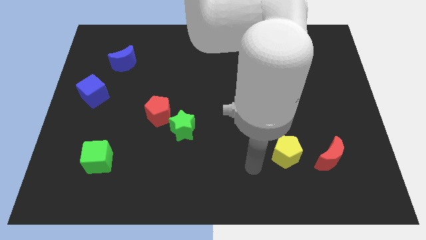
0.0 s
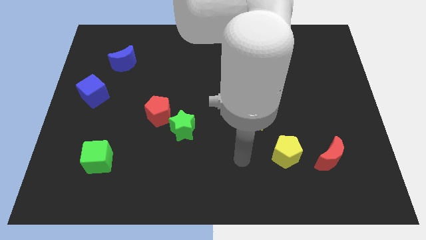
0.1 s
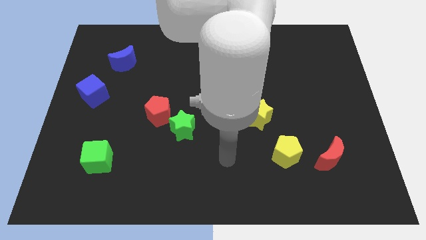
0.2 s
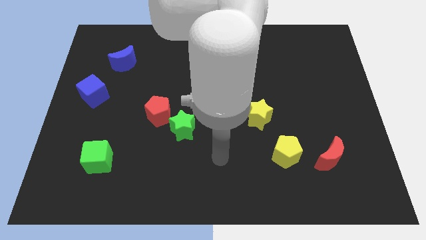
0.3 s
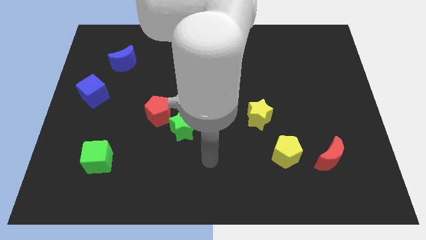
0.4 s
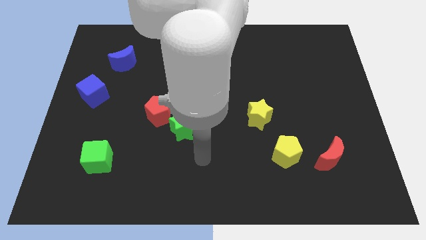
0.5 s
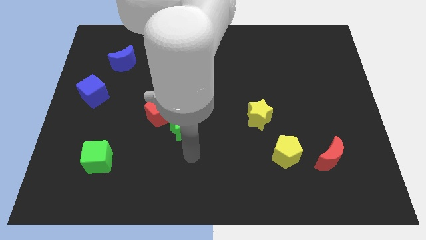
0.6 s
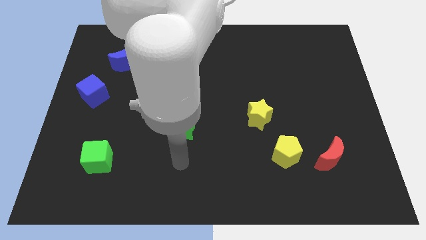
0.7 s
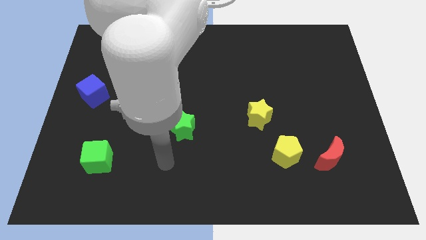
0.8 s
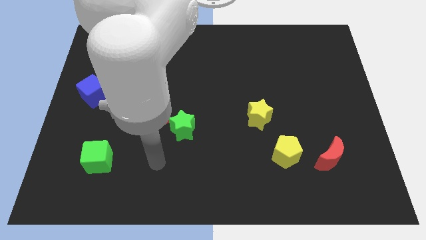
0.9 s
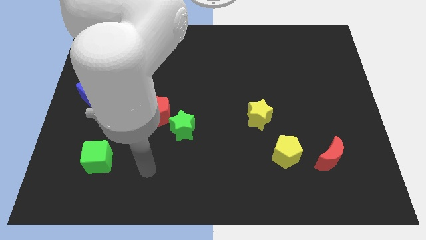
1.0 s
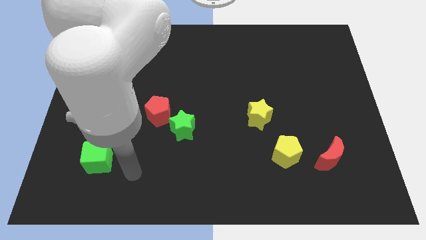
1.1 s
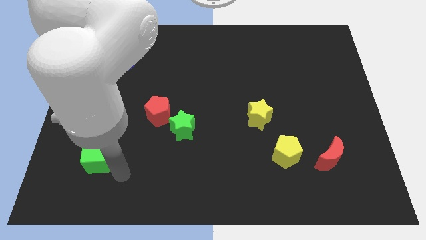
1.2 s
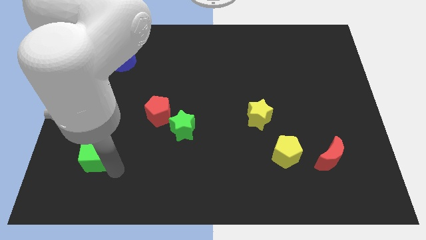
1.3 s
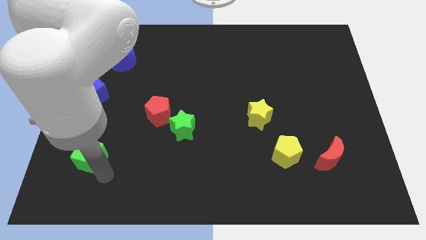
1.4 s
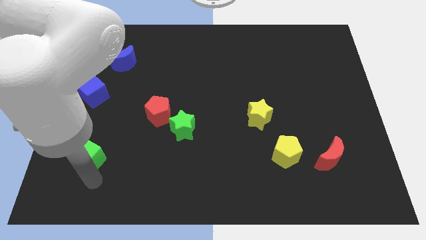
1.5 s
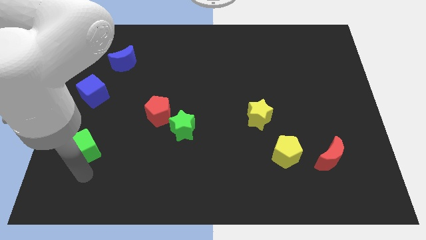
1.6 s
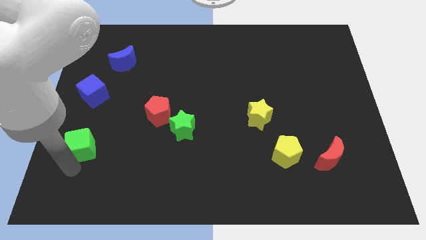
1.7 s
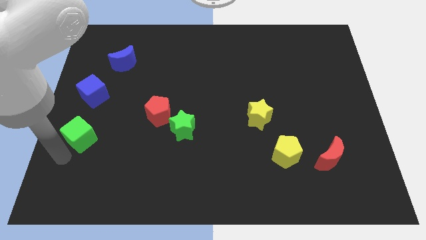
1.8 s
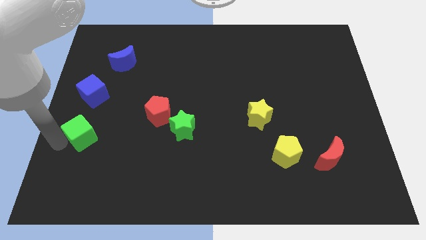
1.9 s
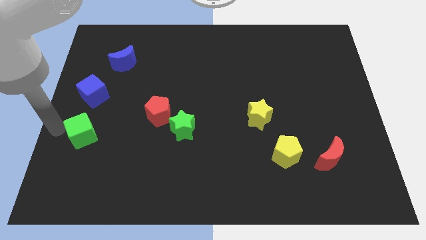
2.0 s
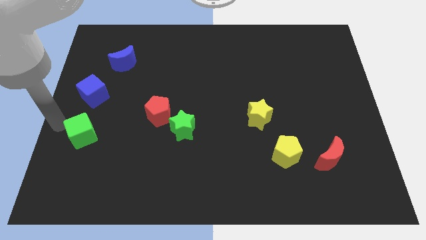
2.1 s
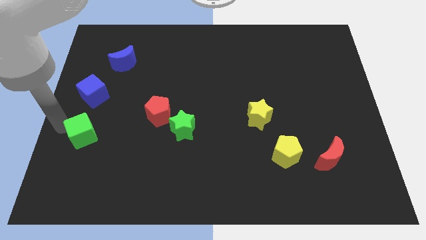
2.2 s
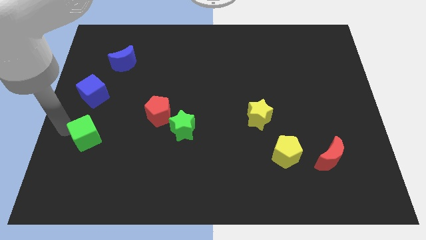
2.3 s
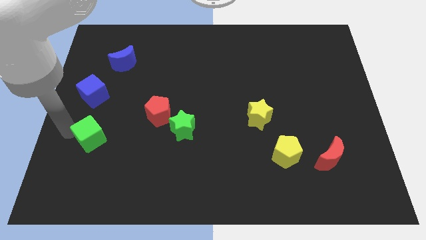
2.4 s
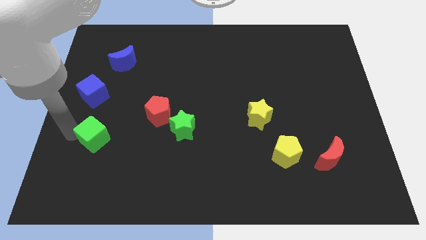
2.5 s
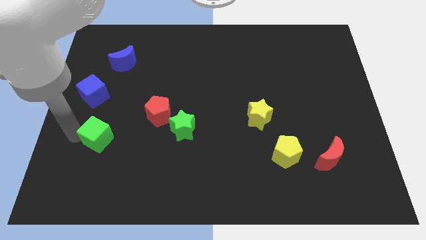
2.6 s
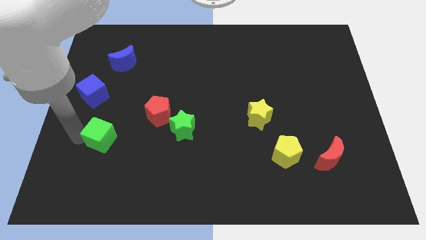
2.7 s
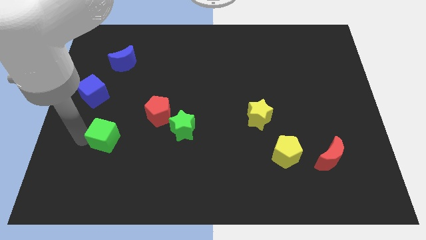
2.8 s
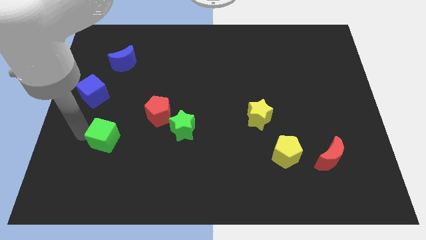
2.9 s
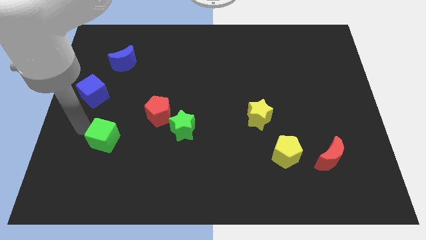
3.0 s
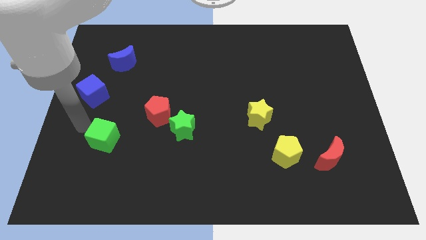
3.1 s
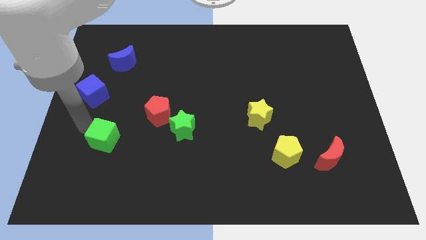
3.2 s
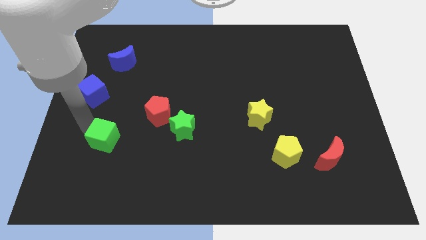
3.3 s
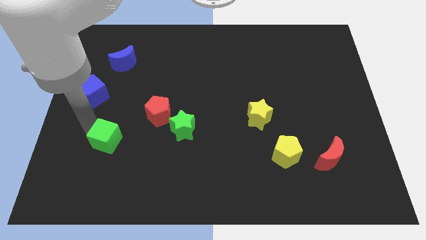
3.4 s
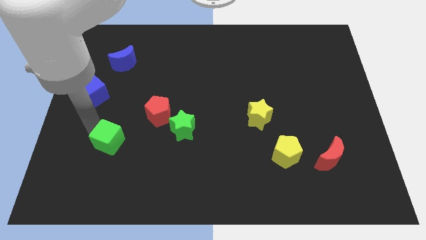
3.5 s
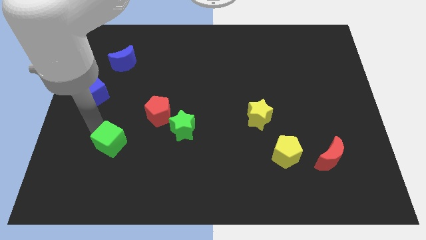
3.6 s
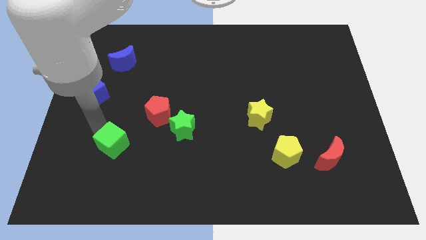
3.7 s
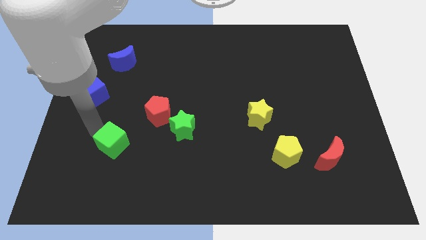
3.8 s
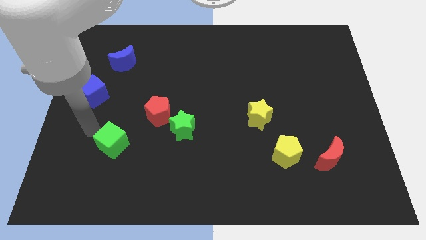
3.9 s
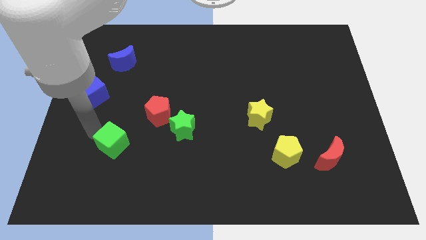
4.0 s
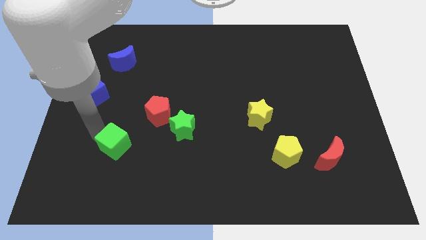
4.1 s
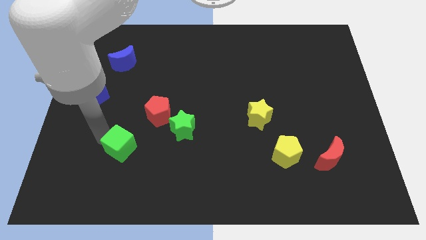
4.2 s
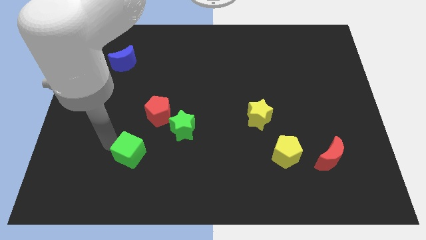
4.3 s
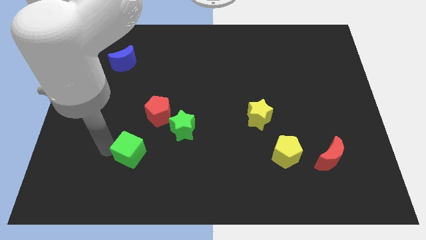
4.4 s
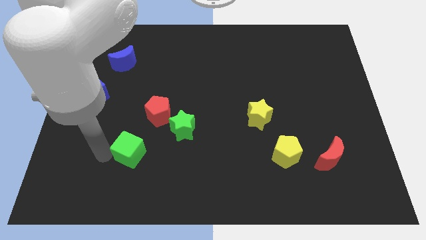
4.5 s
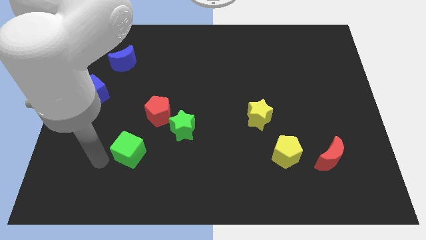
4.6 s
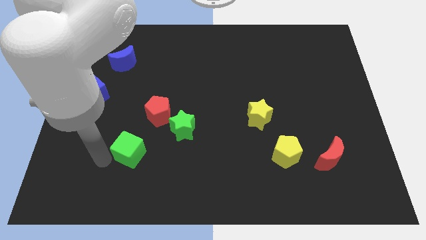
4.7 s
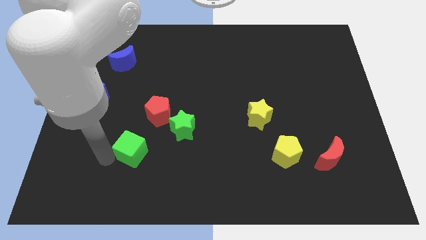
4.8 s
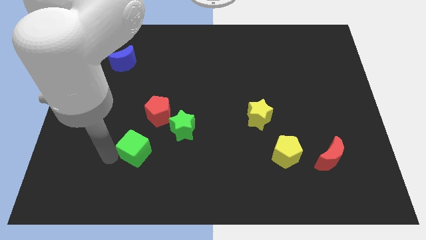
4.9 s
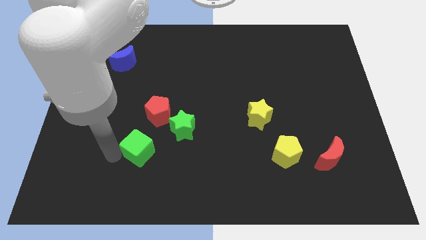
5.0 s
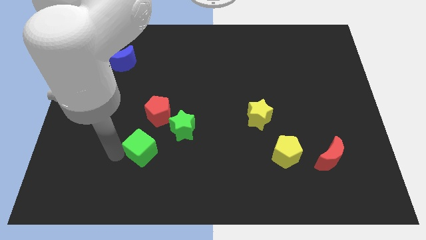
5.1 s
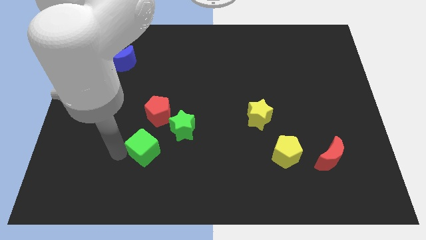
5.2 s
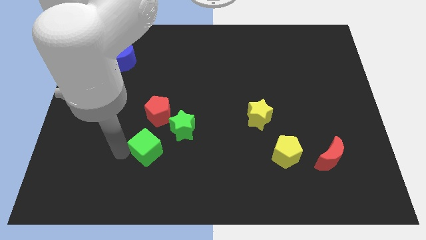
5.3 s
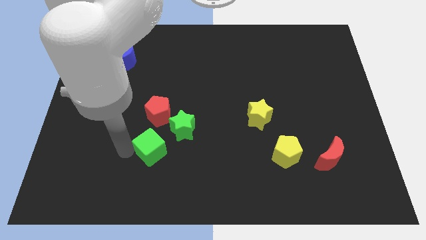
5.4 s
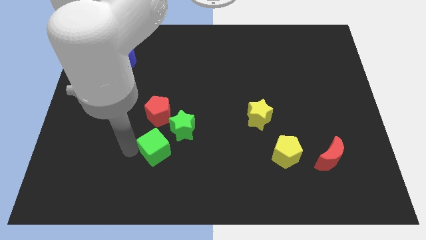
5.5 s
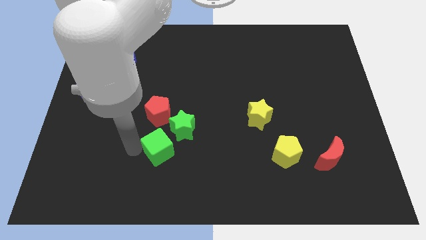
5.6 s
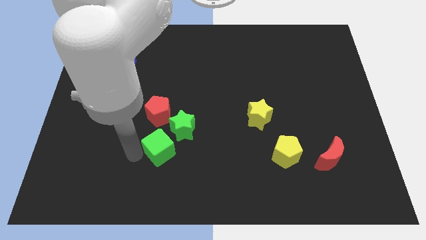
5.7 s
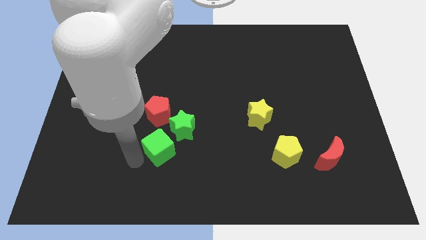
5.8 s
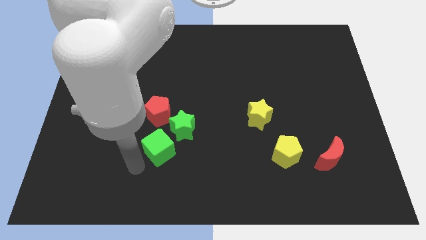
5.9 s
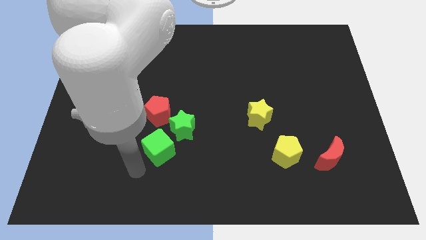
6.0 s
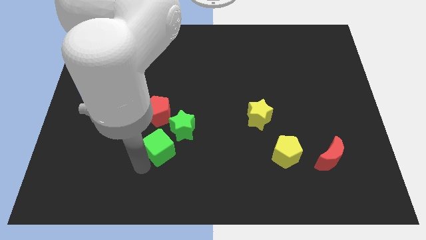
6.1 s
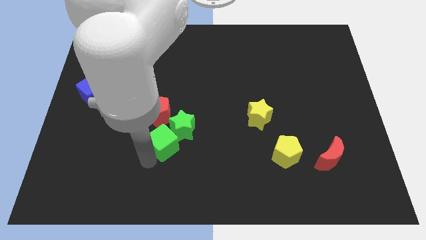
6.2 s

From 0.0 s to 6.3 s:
put the green cube to the green star

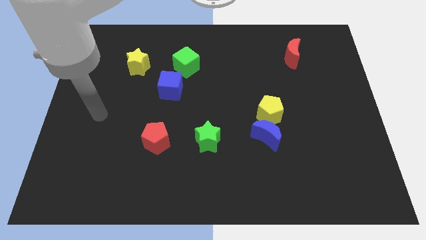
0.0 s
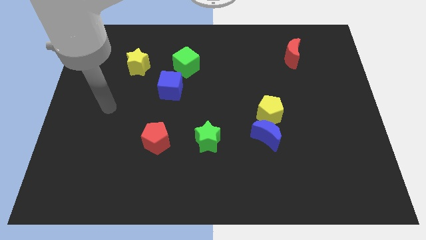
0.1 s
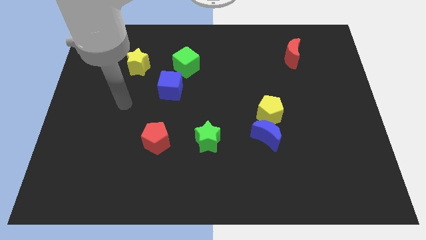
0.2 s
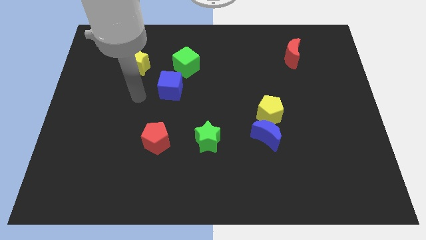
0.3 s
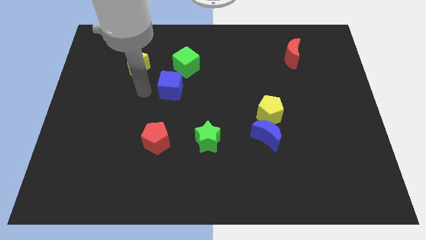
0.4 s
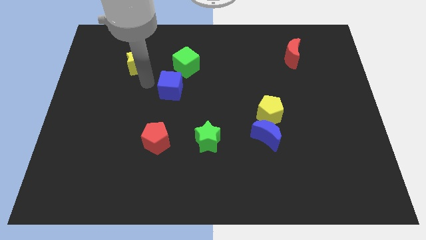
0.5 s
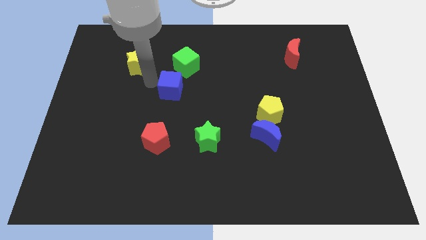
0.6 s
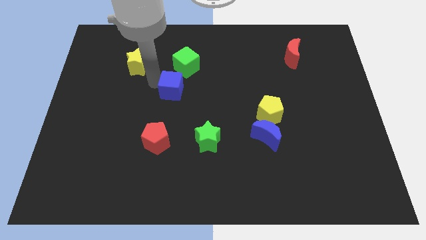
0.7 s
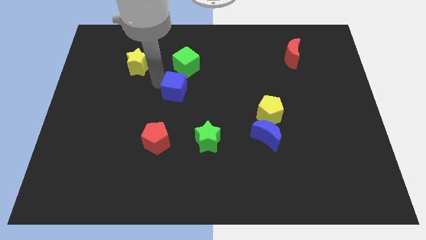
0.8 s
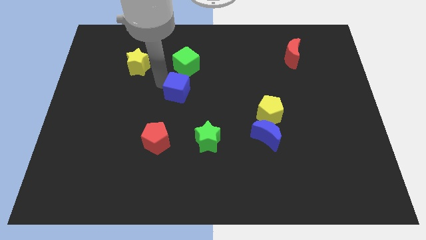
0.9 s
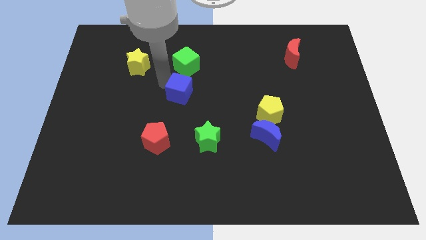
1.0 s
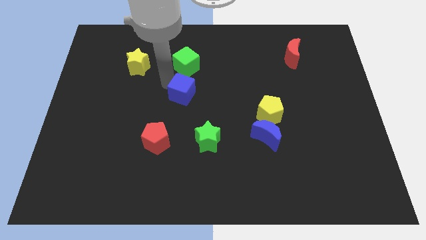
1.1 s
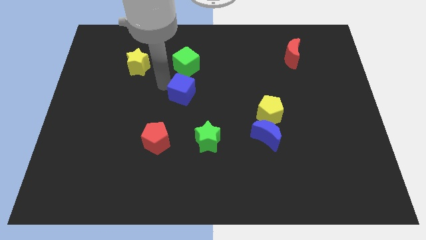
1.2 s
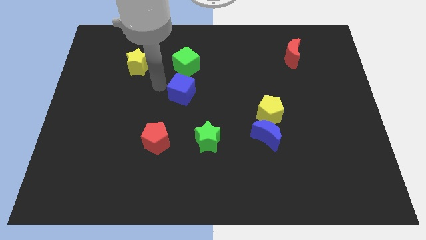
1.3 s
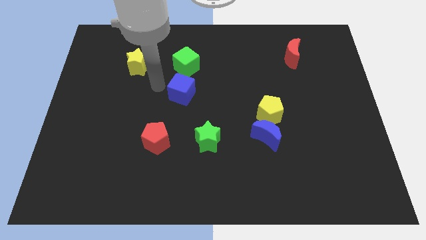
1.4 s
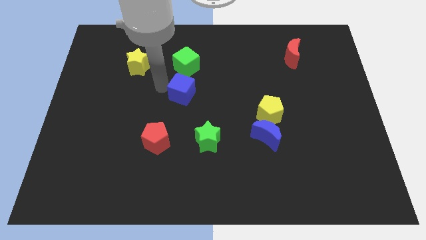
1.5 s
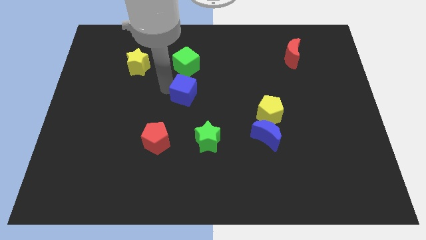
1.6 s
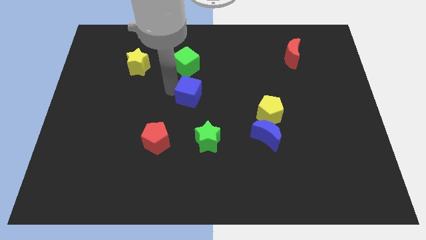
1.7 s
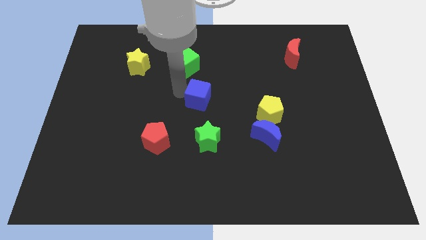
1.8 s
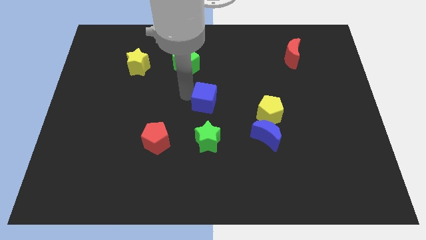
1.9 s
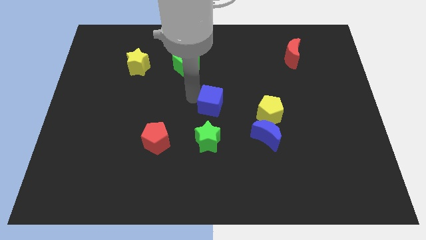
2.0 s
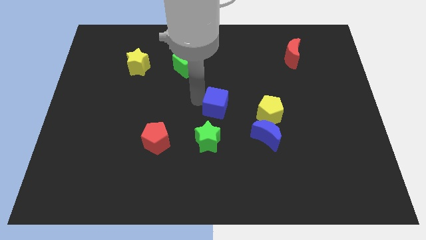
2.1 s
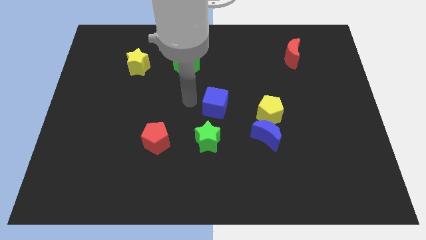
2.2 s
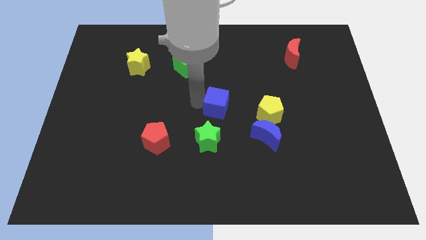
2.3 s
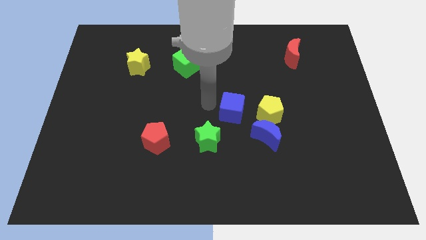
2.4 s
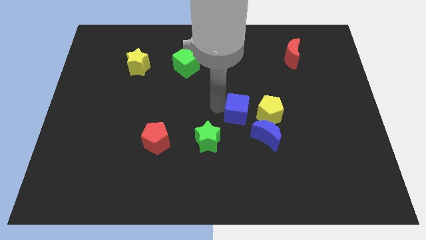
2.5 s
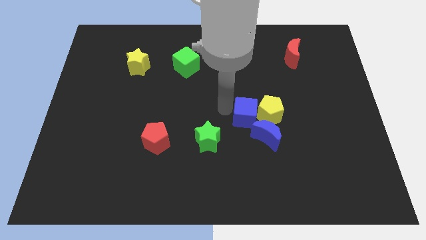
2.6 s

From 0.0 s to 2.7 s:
move the blue cube towards the yellow pentagon
